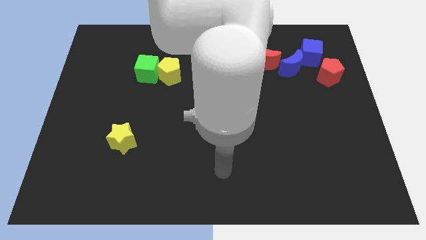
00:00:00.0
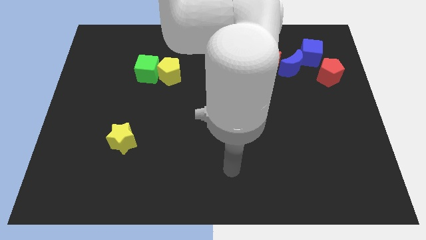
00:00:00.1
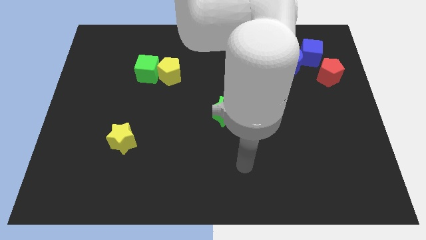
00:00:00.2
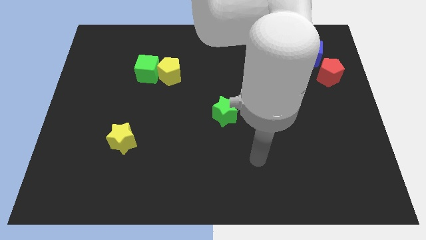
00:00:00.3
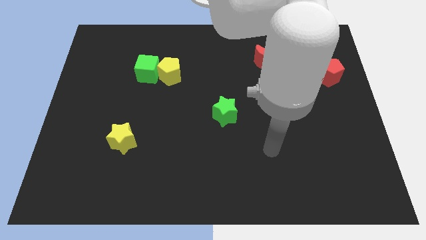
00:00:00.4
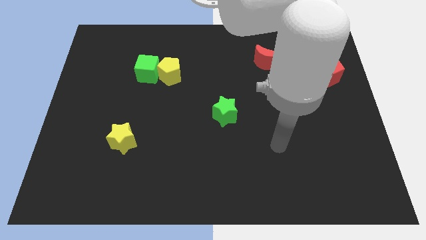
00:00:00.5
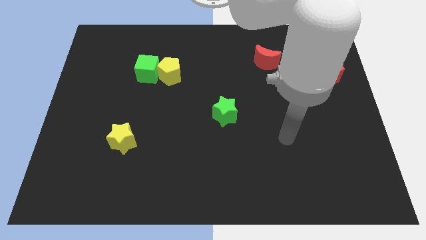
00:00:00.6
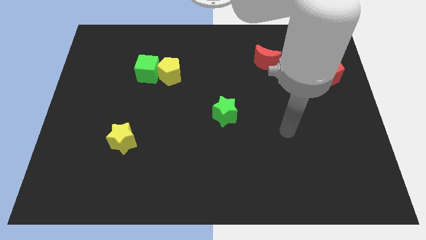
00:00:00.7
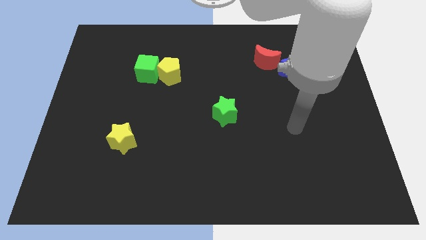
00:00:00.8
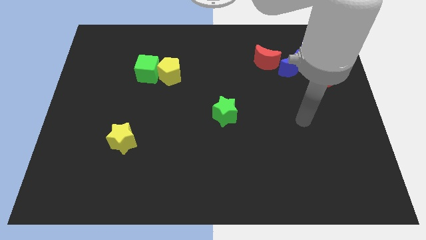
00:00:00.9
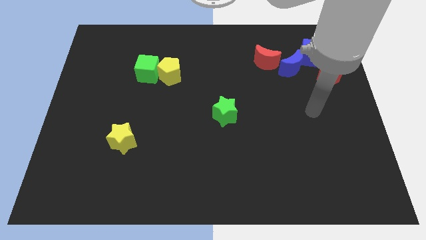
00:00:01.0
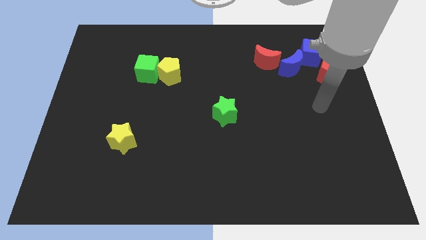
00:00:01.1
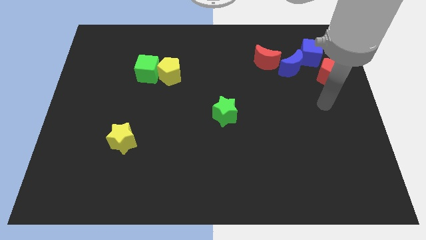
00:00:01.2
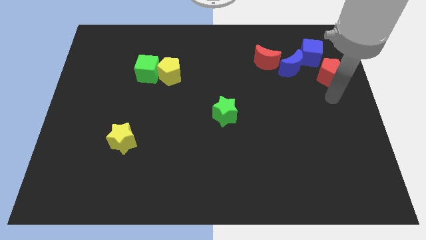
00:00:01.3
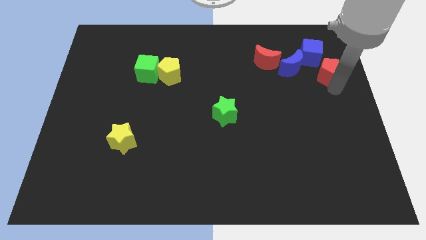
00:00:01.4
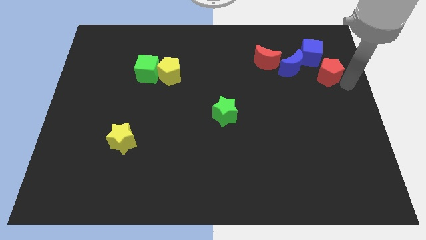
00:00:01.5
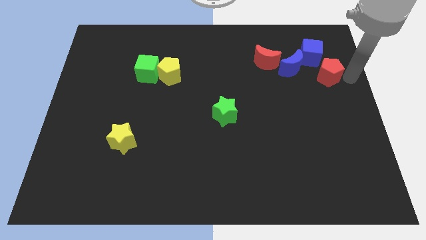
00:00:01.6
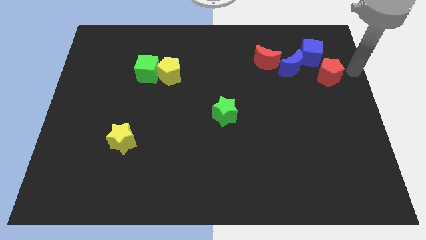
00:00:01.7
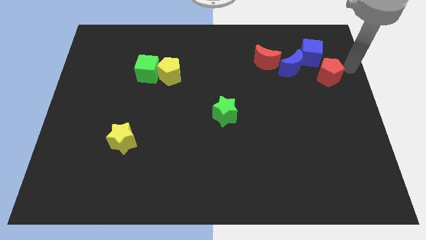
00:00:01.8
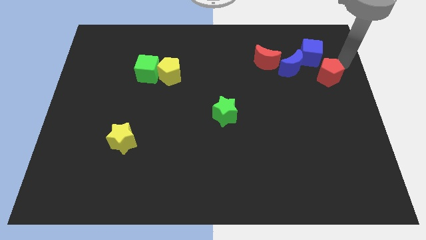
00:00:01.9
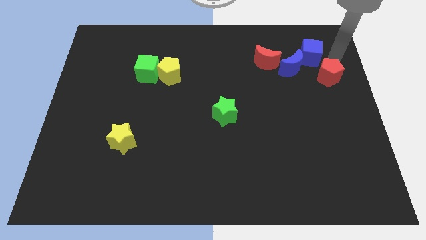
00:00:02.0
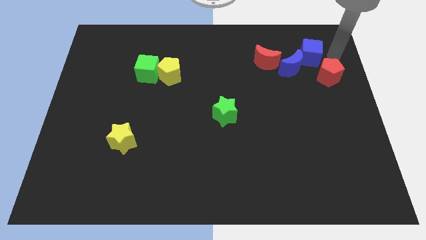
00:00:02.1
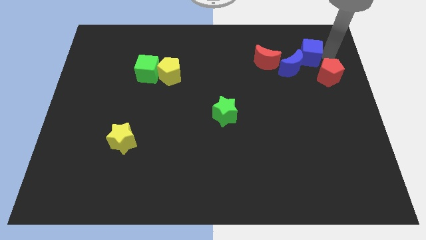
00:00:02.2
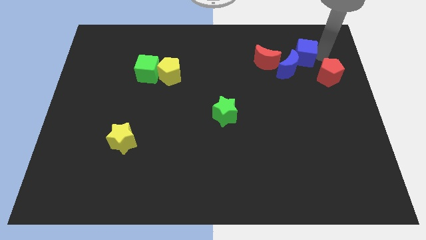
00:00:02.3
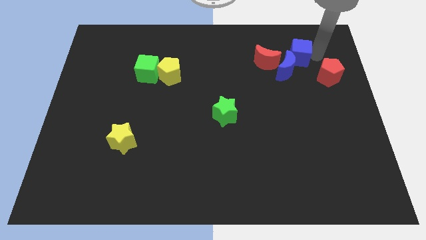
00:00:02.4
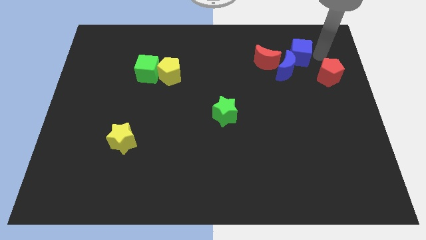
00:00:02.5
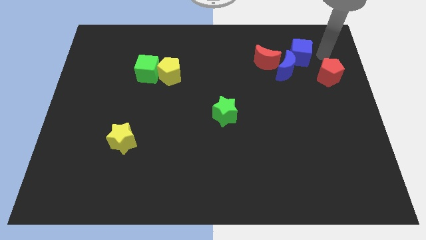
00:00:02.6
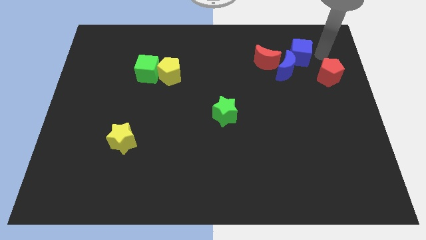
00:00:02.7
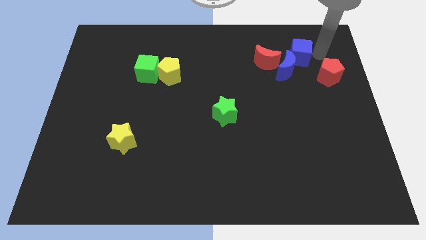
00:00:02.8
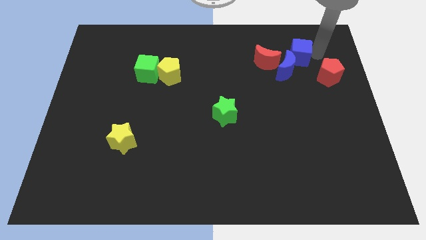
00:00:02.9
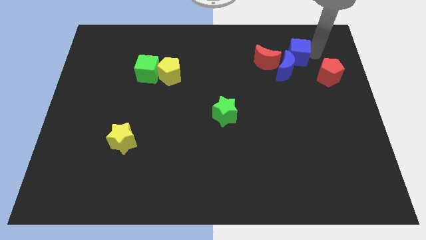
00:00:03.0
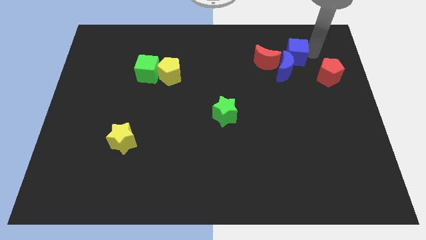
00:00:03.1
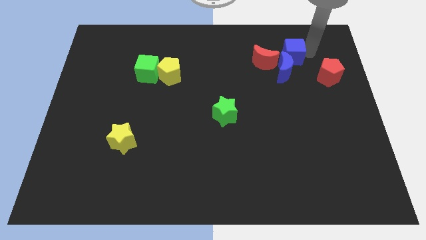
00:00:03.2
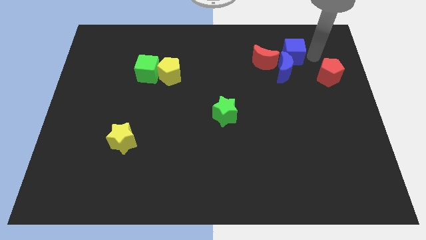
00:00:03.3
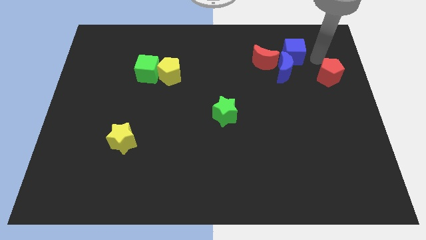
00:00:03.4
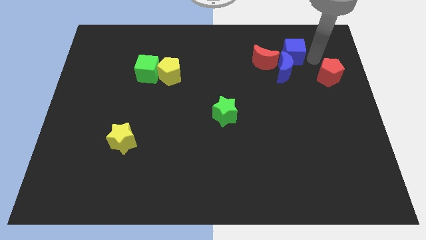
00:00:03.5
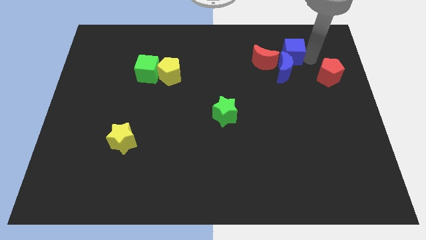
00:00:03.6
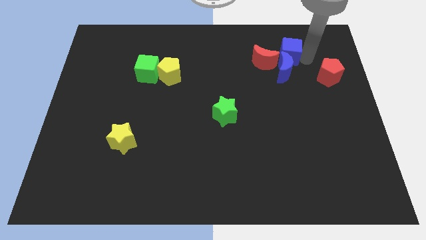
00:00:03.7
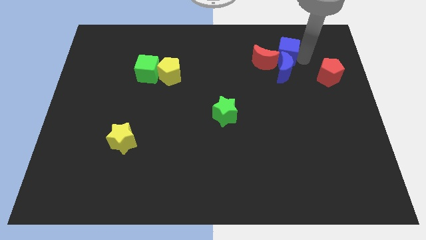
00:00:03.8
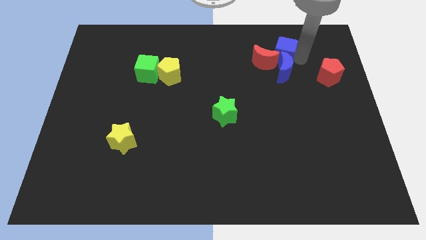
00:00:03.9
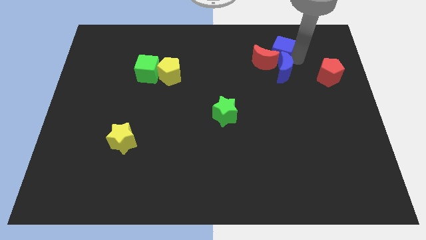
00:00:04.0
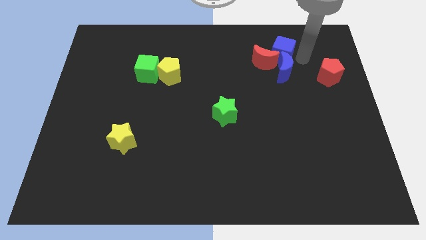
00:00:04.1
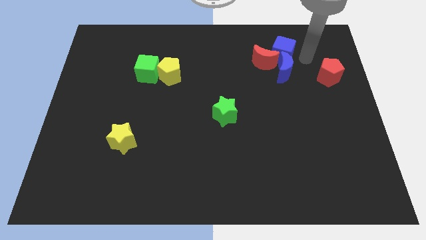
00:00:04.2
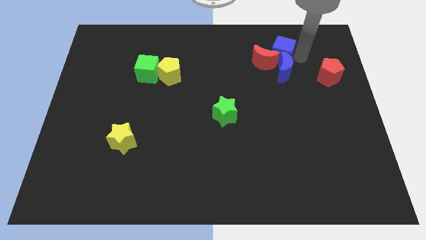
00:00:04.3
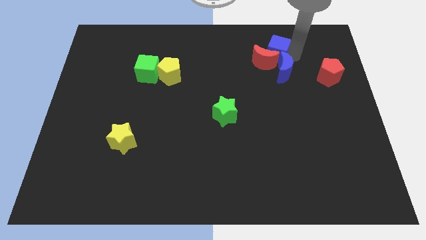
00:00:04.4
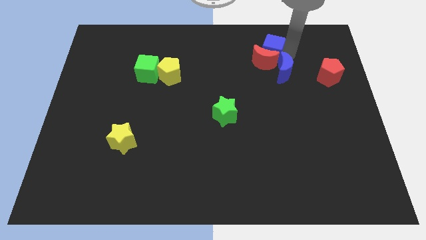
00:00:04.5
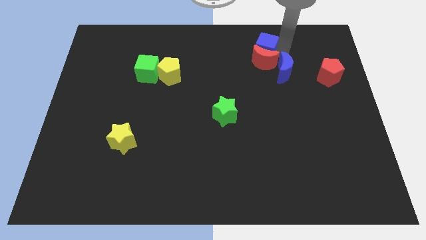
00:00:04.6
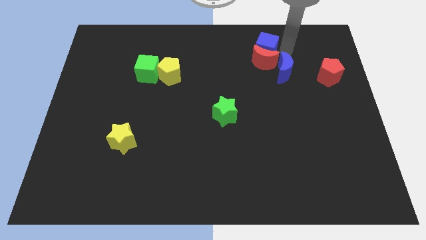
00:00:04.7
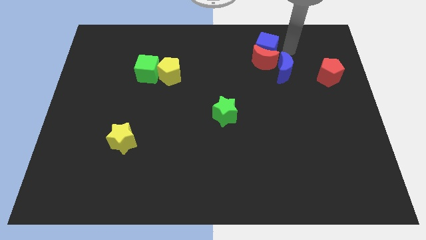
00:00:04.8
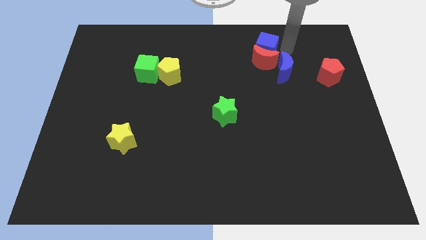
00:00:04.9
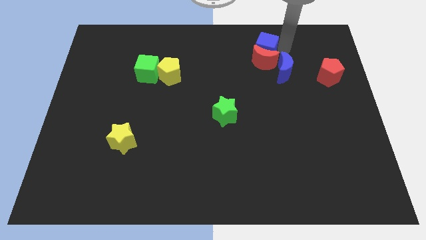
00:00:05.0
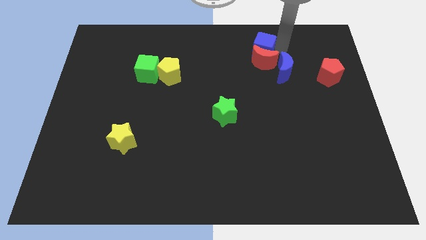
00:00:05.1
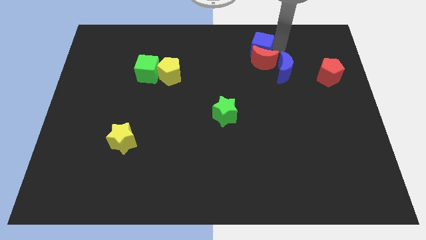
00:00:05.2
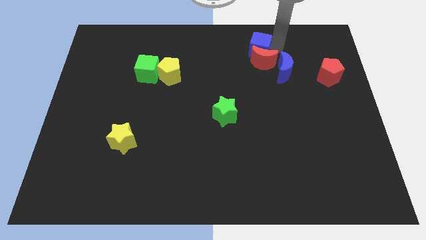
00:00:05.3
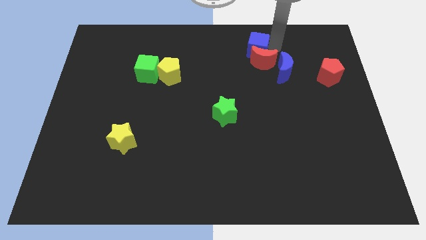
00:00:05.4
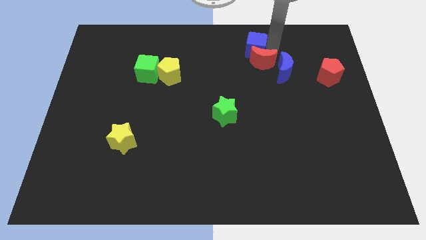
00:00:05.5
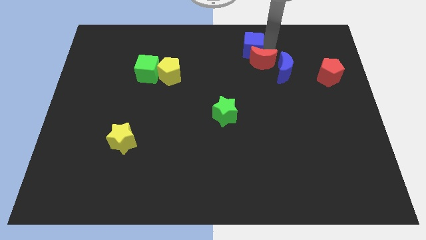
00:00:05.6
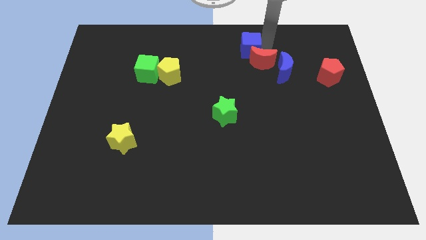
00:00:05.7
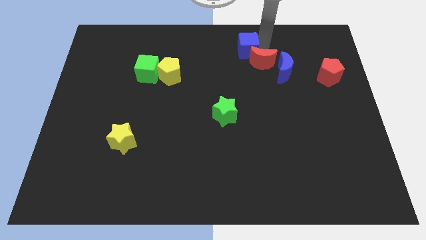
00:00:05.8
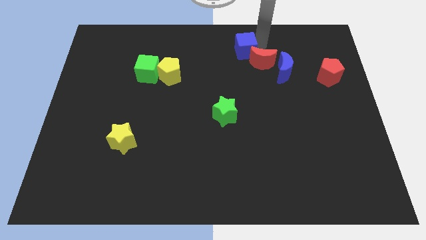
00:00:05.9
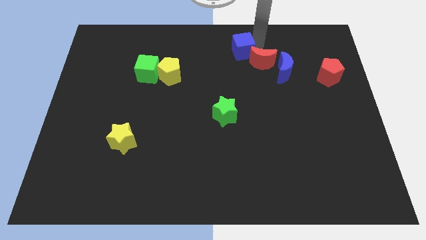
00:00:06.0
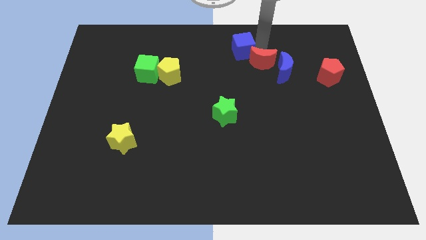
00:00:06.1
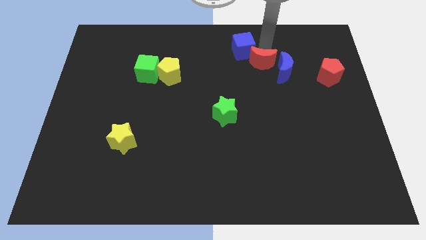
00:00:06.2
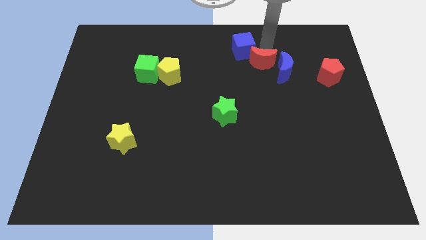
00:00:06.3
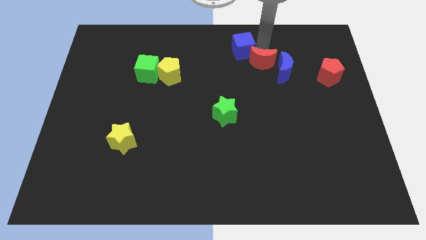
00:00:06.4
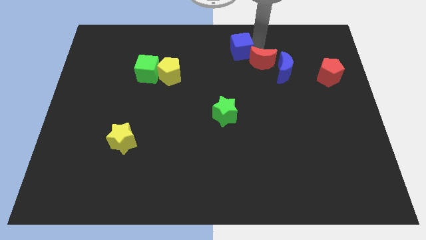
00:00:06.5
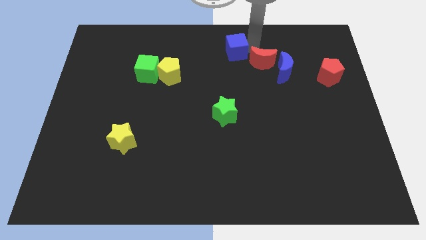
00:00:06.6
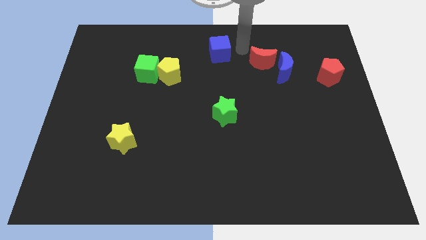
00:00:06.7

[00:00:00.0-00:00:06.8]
move the blue cube left

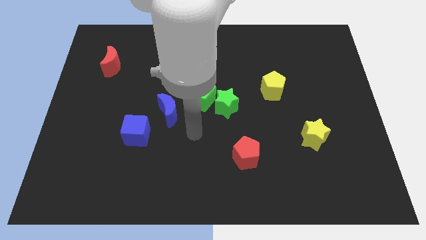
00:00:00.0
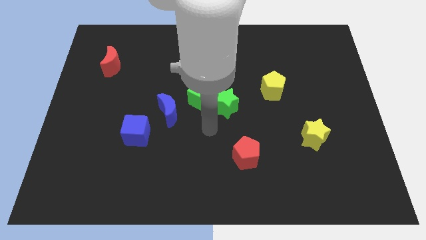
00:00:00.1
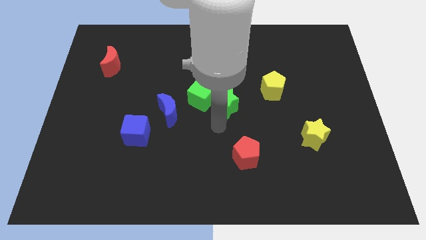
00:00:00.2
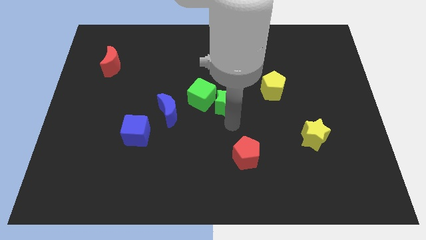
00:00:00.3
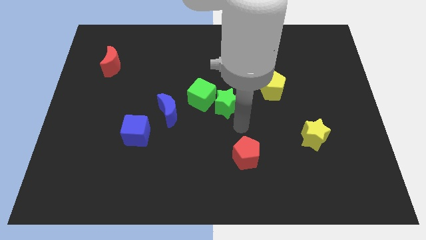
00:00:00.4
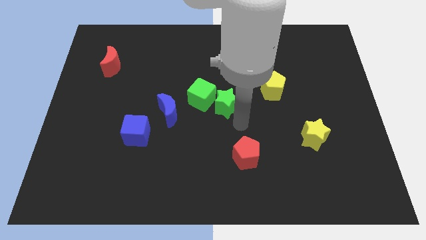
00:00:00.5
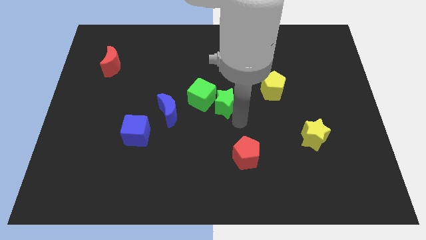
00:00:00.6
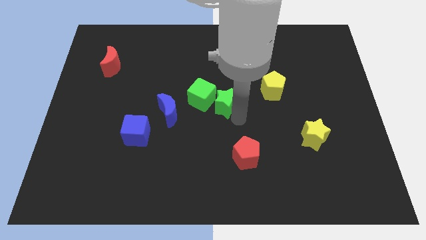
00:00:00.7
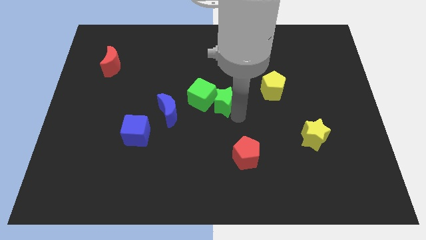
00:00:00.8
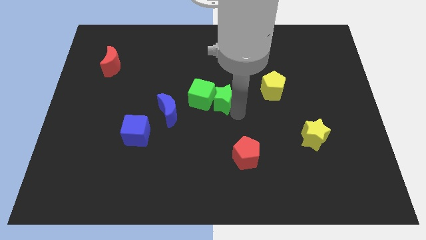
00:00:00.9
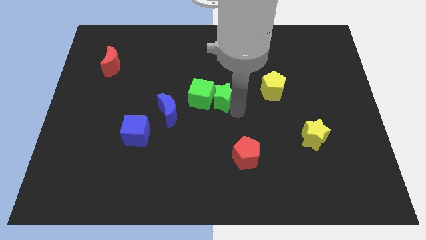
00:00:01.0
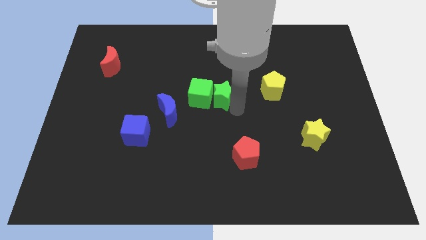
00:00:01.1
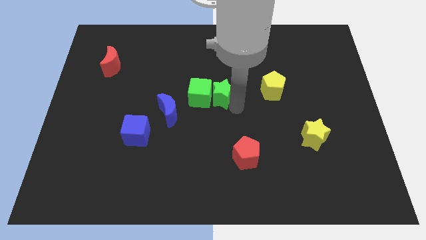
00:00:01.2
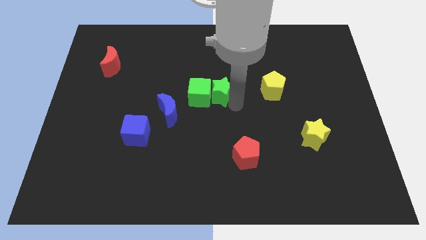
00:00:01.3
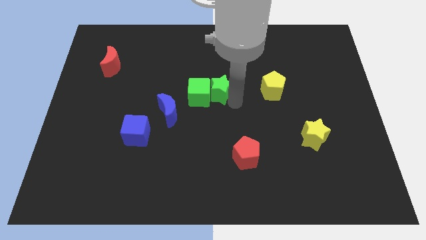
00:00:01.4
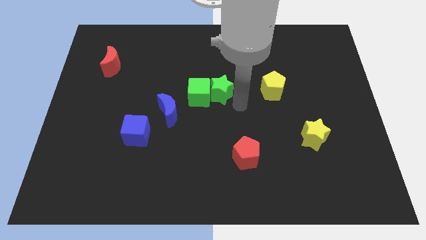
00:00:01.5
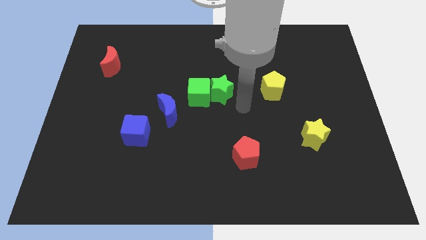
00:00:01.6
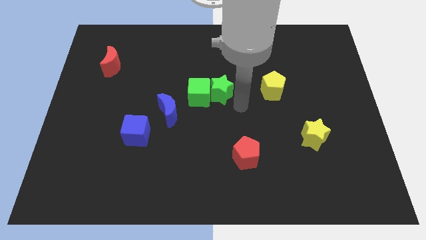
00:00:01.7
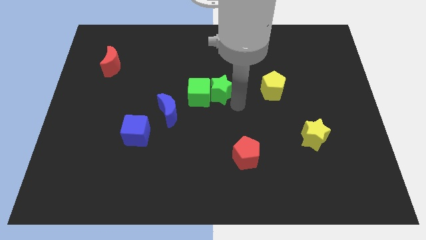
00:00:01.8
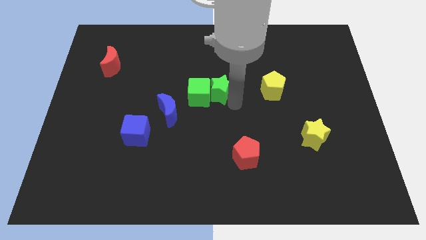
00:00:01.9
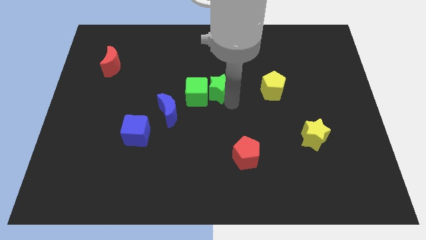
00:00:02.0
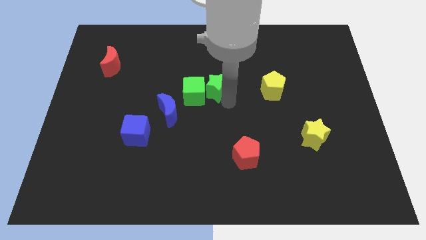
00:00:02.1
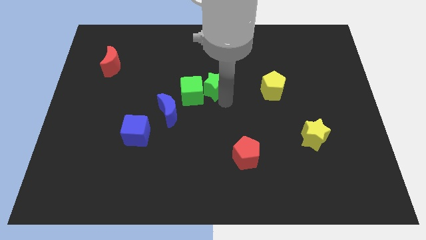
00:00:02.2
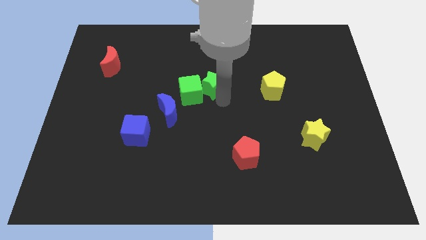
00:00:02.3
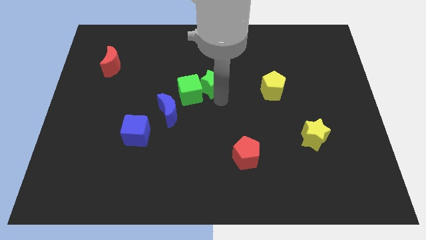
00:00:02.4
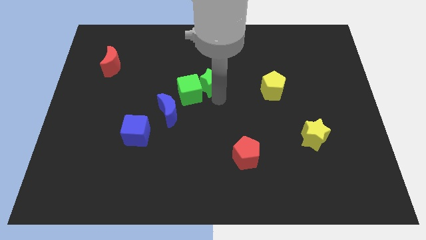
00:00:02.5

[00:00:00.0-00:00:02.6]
slightly push the green star diagonally upwards and to the left
